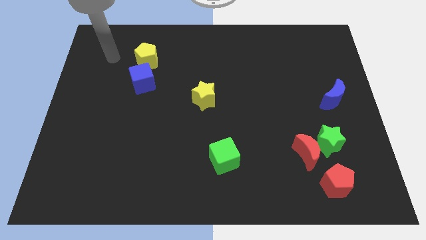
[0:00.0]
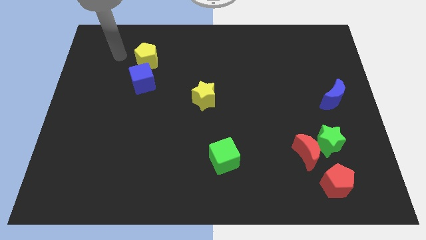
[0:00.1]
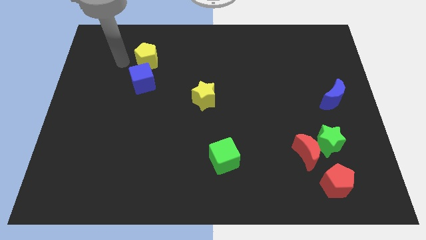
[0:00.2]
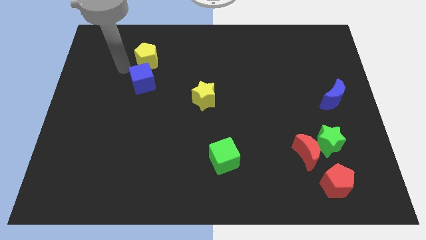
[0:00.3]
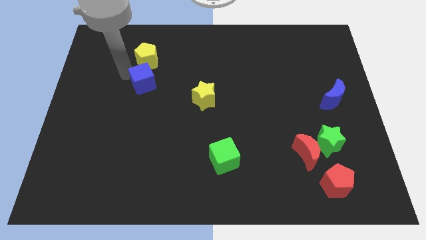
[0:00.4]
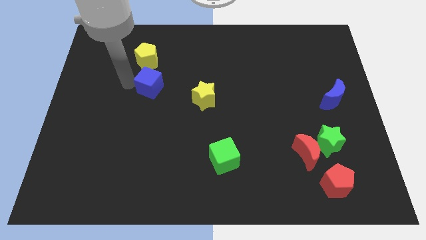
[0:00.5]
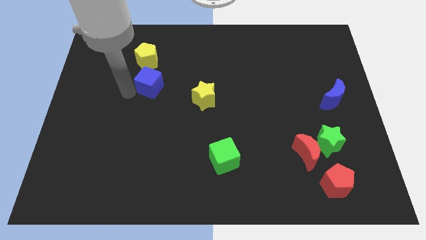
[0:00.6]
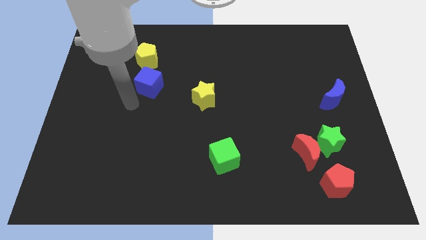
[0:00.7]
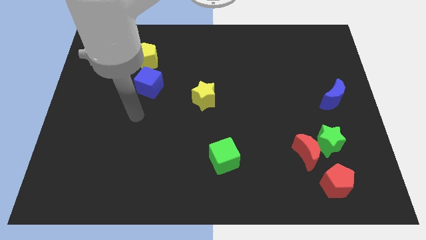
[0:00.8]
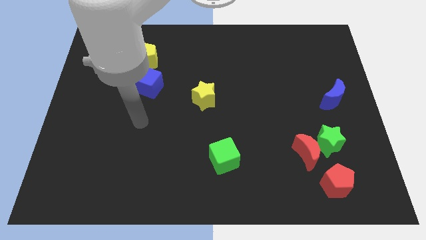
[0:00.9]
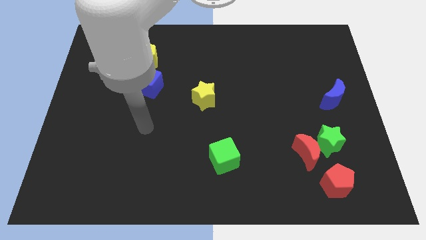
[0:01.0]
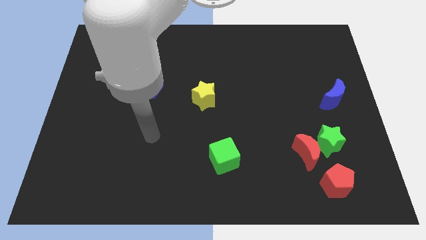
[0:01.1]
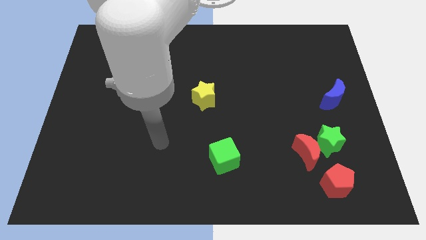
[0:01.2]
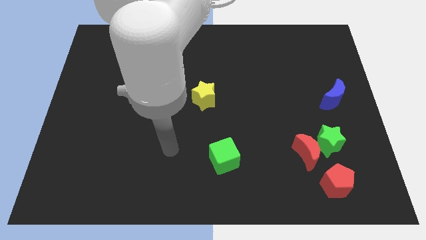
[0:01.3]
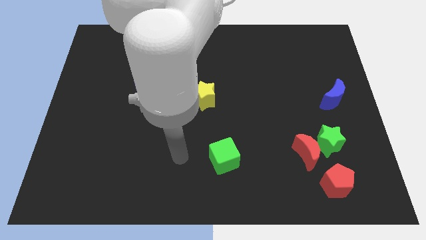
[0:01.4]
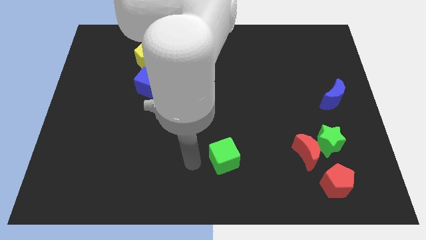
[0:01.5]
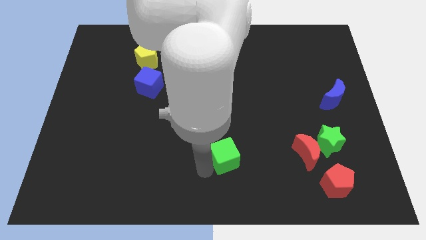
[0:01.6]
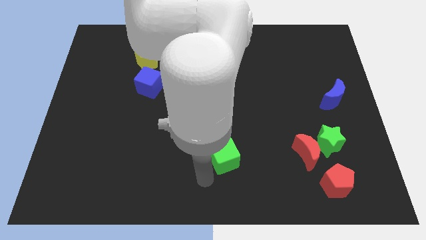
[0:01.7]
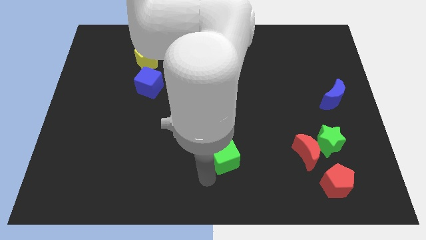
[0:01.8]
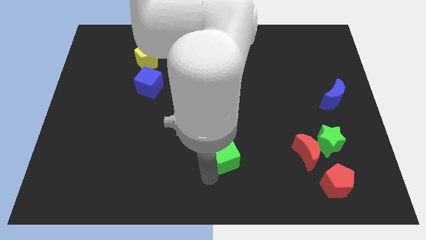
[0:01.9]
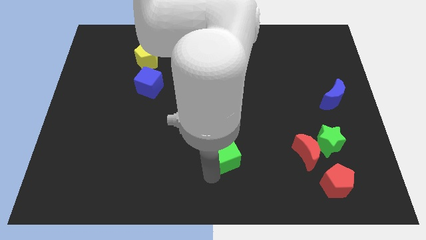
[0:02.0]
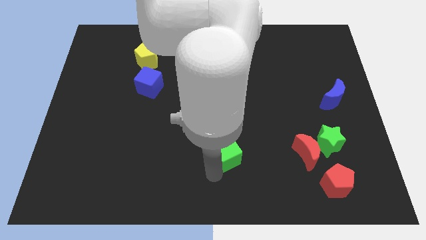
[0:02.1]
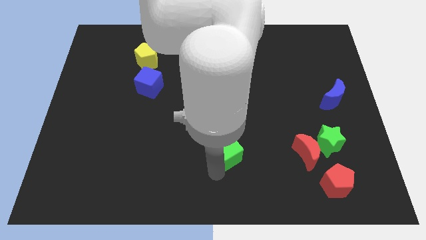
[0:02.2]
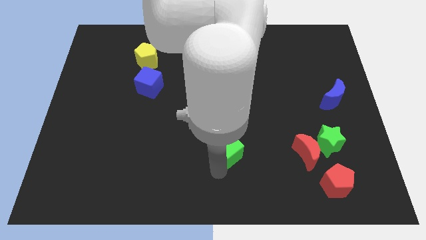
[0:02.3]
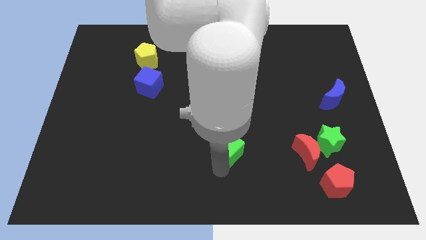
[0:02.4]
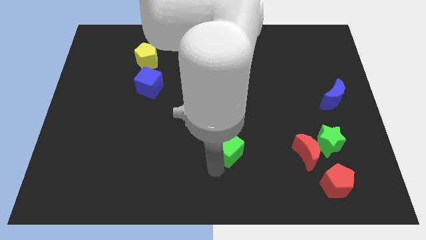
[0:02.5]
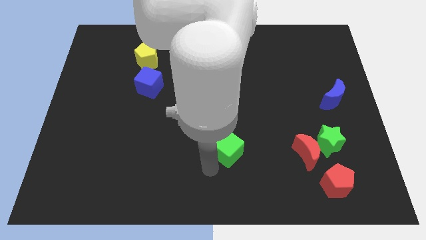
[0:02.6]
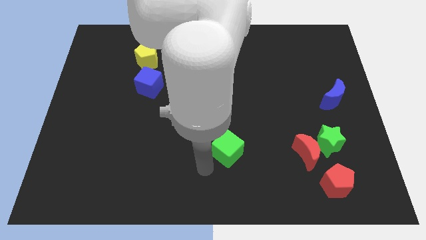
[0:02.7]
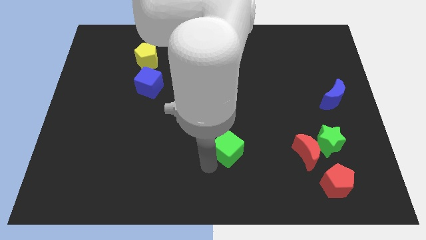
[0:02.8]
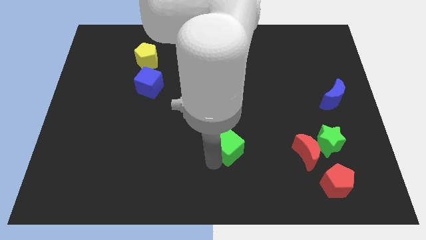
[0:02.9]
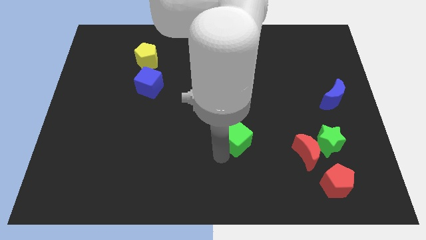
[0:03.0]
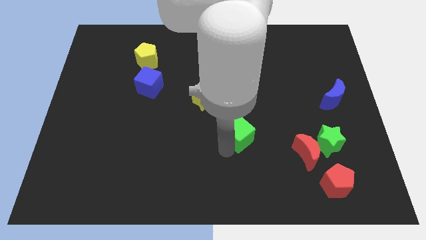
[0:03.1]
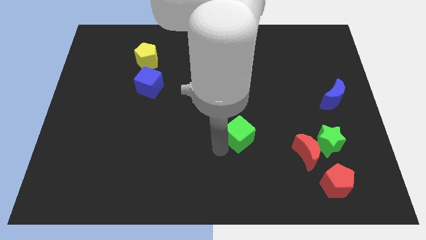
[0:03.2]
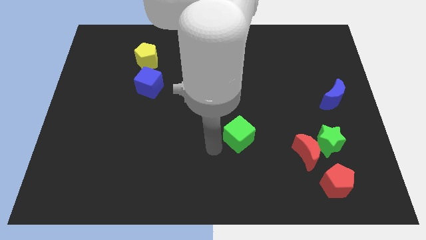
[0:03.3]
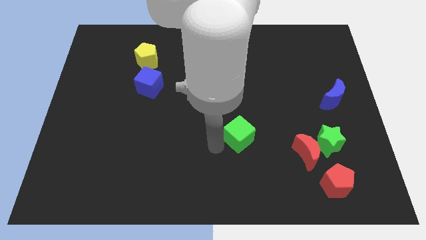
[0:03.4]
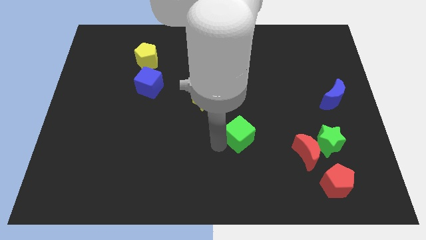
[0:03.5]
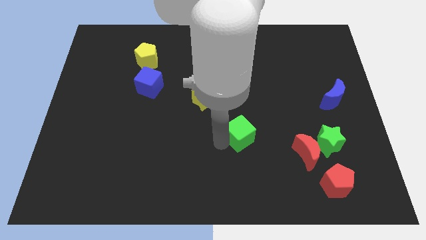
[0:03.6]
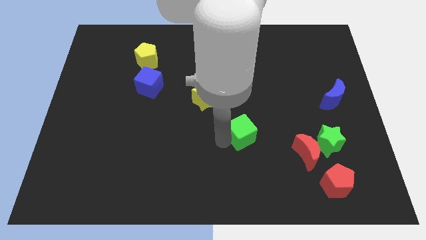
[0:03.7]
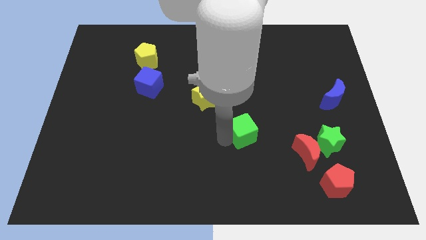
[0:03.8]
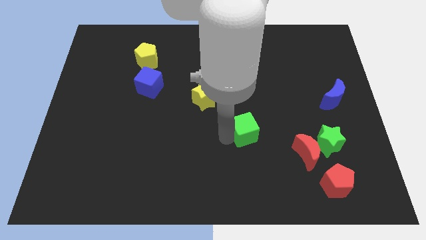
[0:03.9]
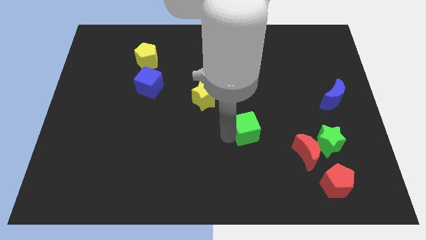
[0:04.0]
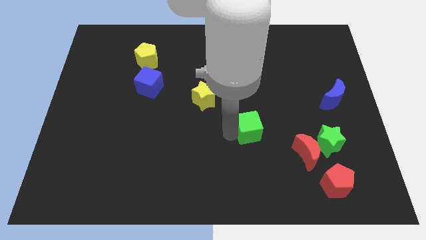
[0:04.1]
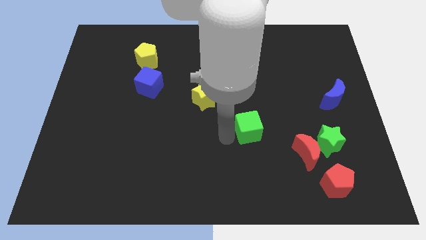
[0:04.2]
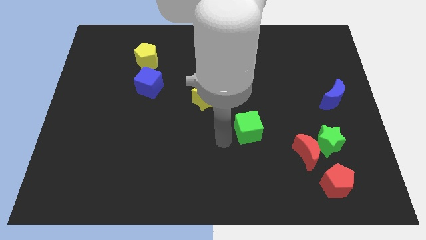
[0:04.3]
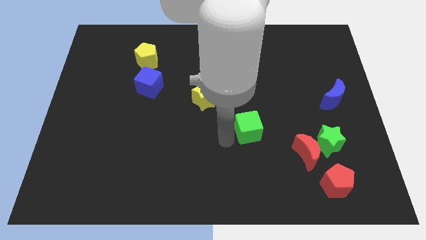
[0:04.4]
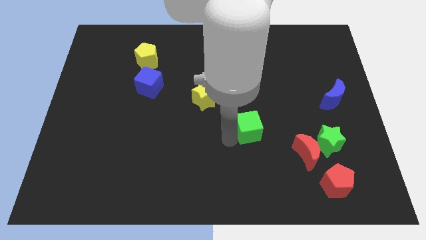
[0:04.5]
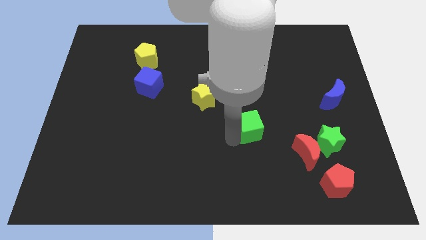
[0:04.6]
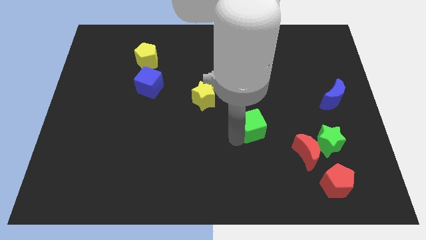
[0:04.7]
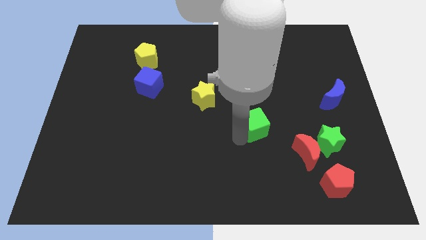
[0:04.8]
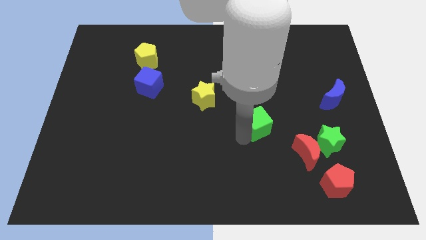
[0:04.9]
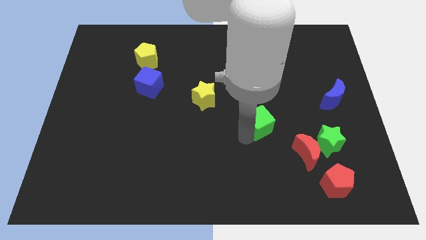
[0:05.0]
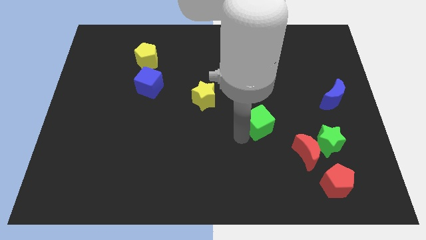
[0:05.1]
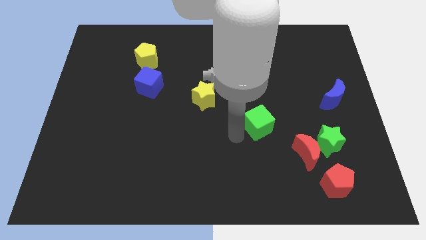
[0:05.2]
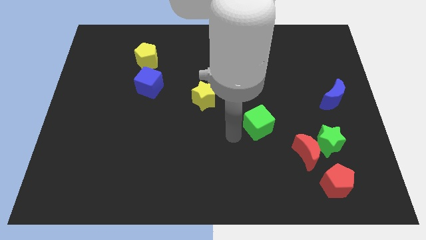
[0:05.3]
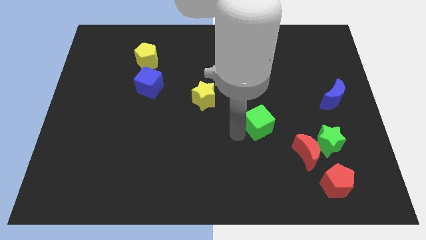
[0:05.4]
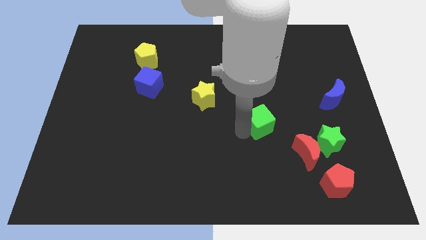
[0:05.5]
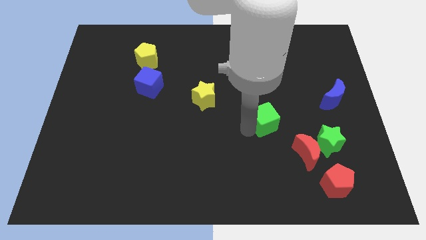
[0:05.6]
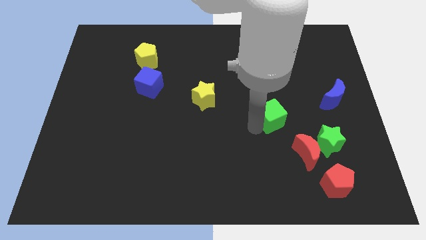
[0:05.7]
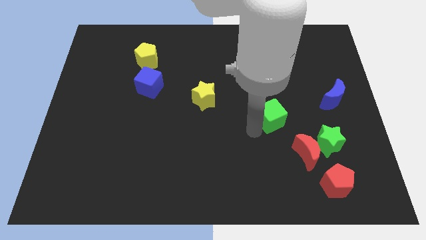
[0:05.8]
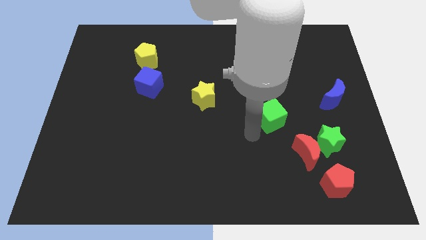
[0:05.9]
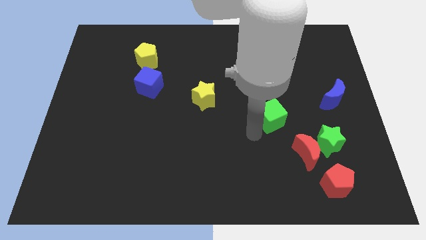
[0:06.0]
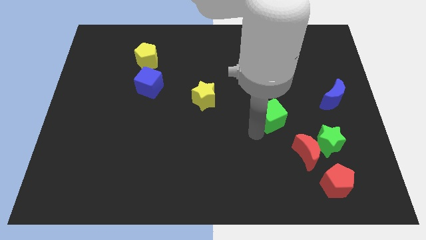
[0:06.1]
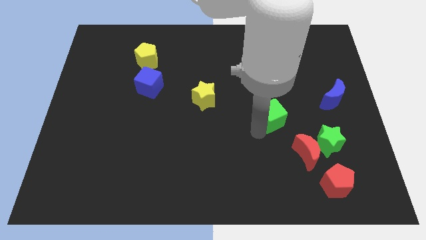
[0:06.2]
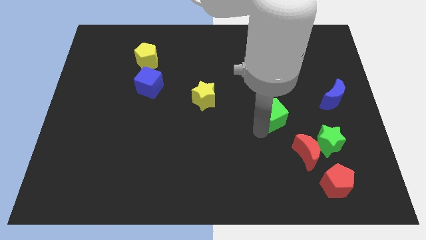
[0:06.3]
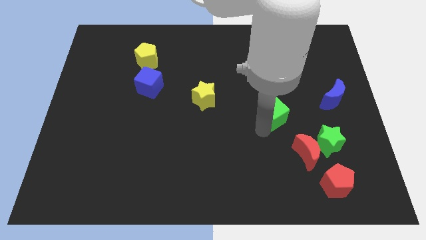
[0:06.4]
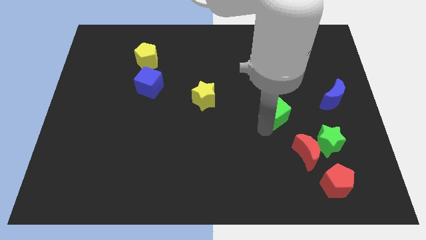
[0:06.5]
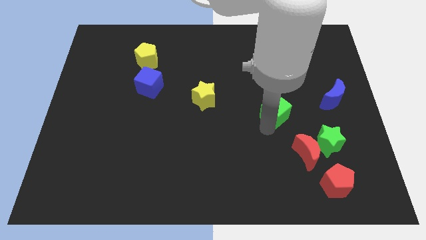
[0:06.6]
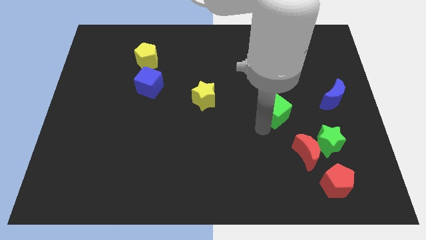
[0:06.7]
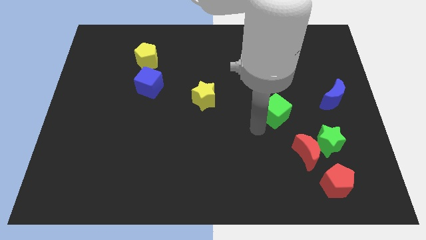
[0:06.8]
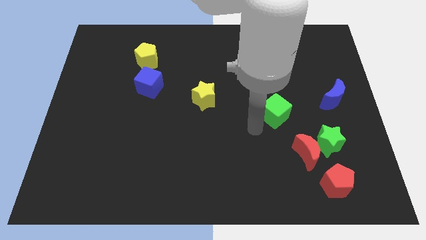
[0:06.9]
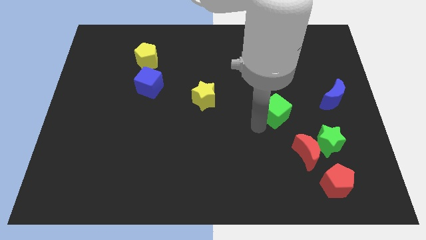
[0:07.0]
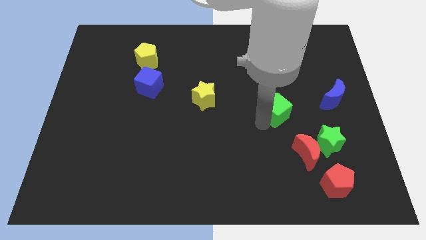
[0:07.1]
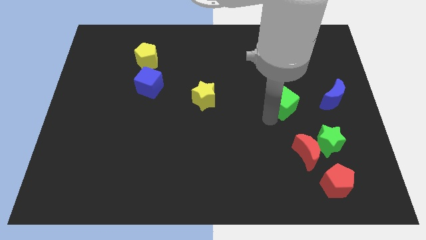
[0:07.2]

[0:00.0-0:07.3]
push the green cube diagonally upwards and to the right

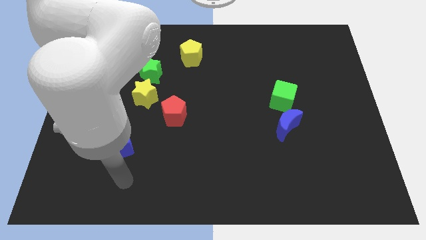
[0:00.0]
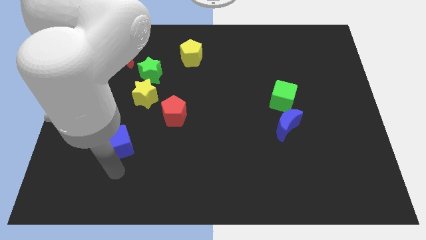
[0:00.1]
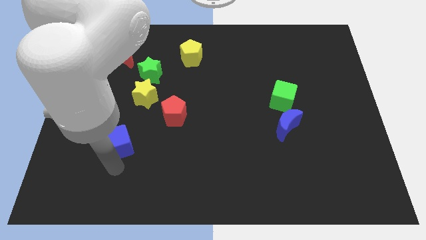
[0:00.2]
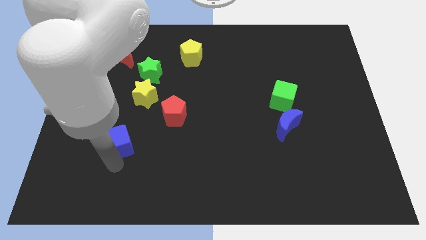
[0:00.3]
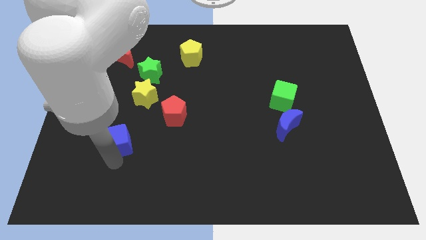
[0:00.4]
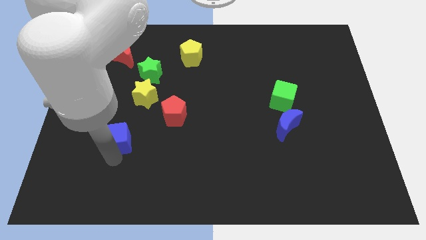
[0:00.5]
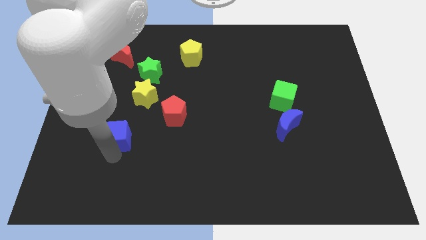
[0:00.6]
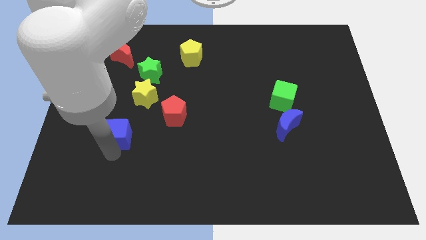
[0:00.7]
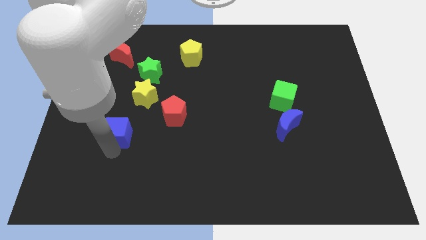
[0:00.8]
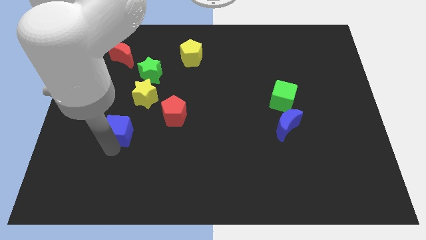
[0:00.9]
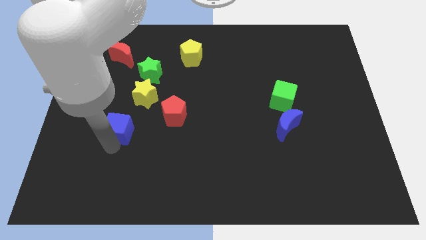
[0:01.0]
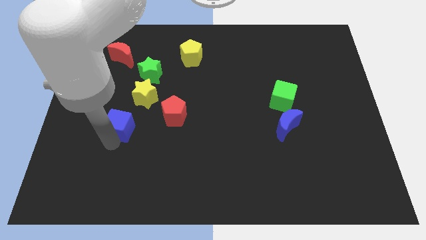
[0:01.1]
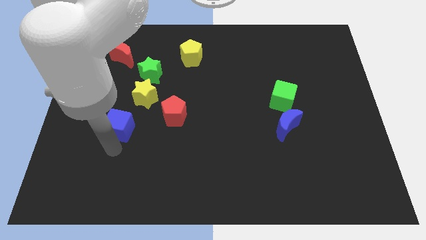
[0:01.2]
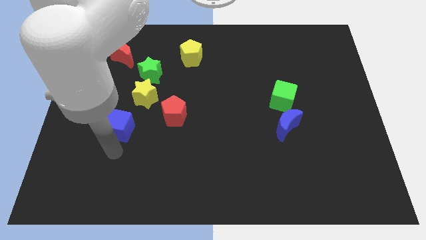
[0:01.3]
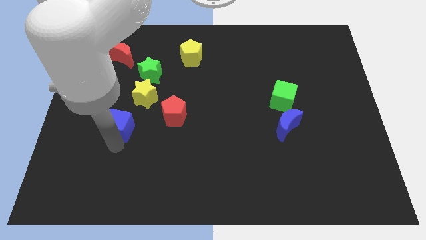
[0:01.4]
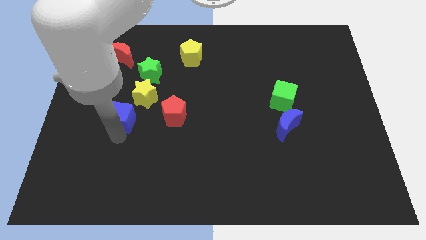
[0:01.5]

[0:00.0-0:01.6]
move the blue cube upwards slightly
